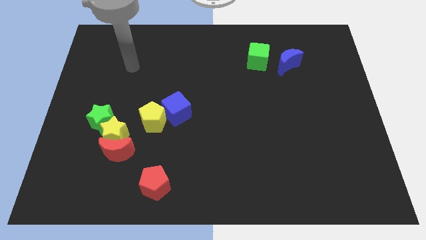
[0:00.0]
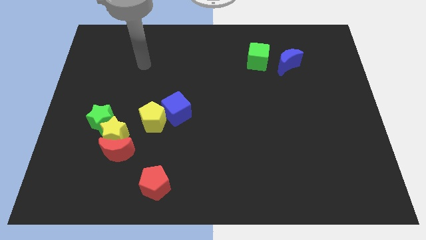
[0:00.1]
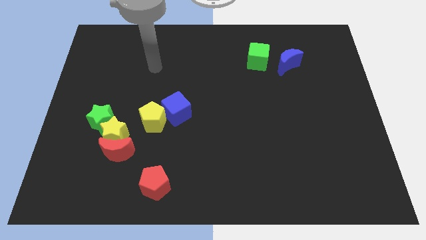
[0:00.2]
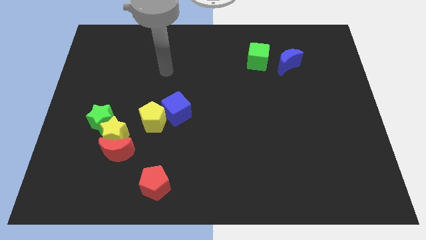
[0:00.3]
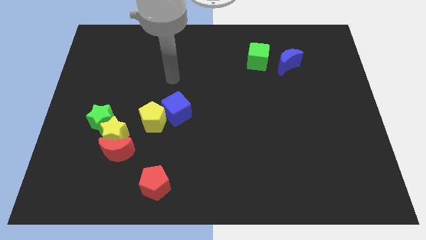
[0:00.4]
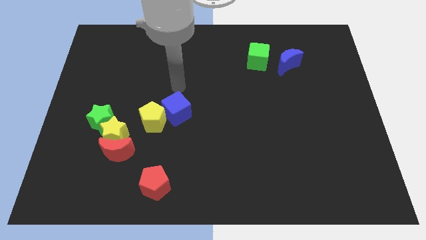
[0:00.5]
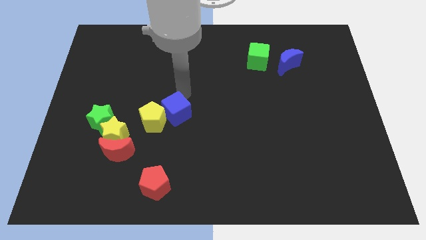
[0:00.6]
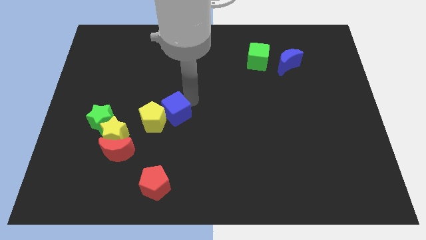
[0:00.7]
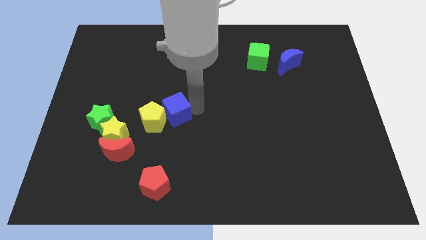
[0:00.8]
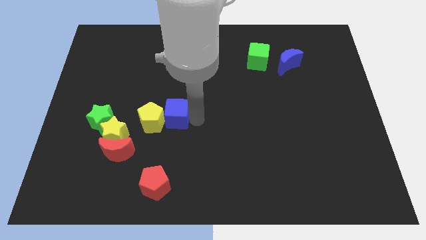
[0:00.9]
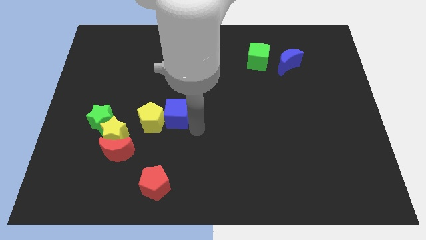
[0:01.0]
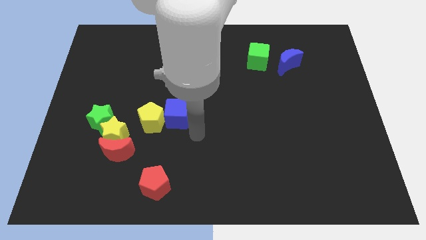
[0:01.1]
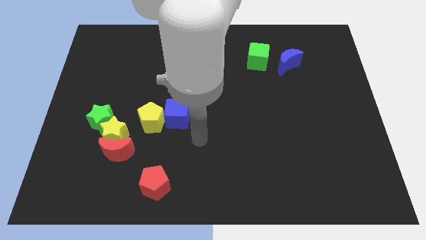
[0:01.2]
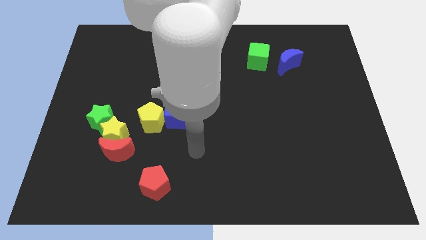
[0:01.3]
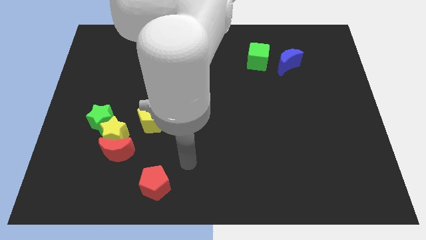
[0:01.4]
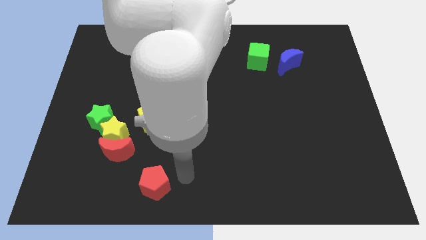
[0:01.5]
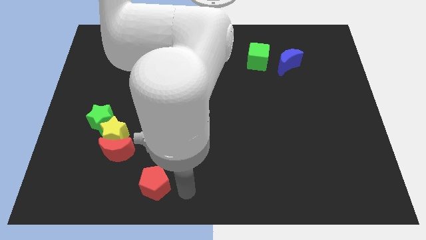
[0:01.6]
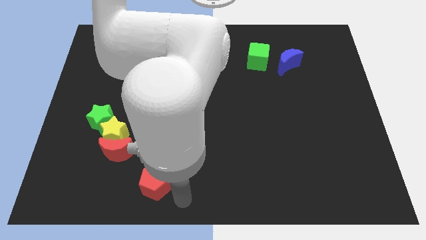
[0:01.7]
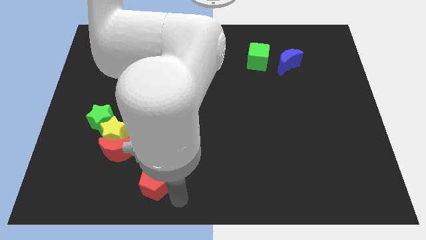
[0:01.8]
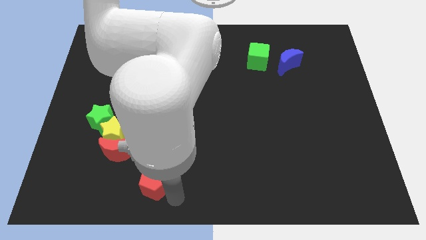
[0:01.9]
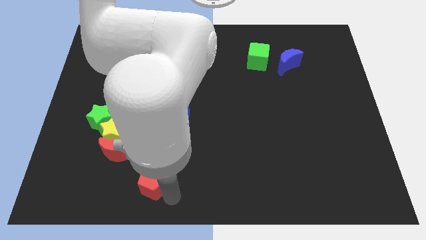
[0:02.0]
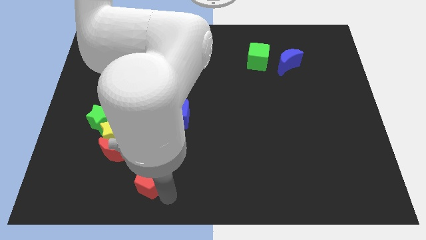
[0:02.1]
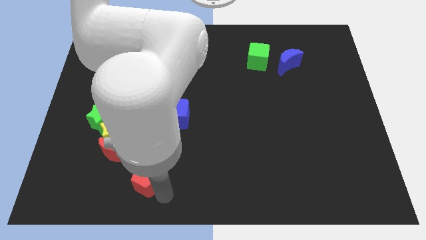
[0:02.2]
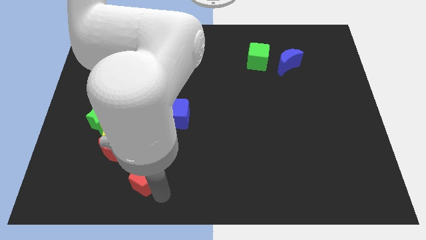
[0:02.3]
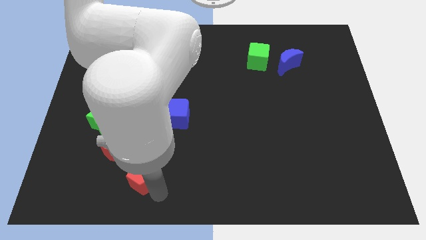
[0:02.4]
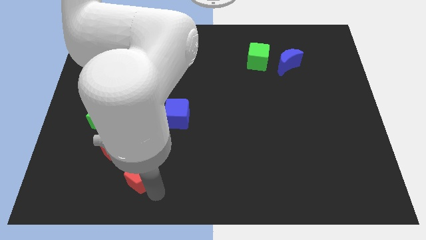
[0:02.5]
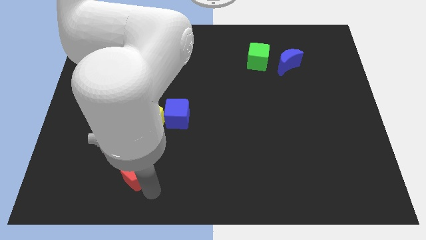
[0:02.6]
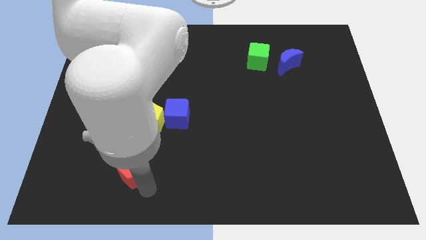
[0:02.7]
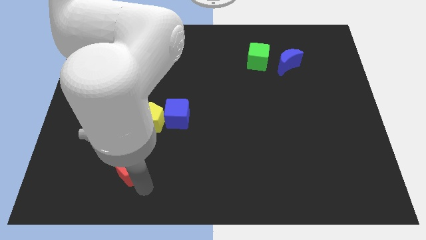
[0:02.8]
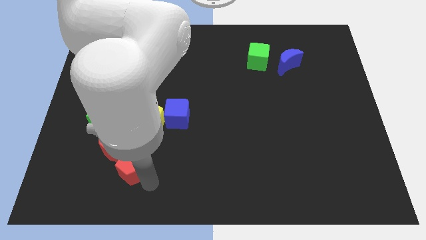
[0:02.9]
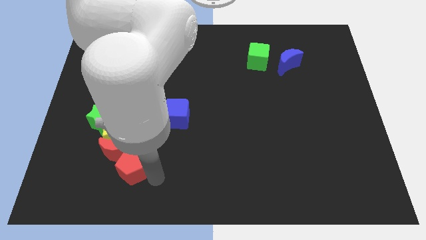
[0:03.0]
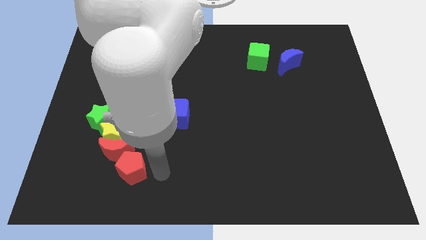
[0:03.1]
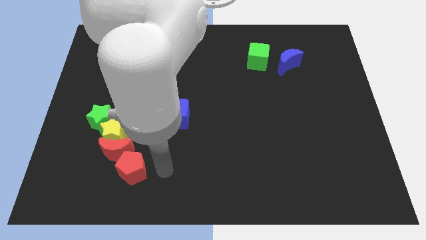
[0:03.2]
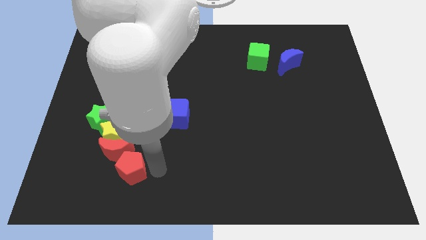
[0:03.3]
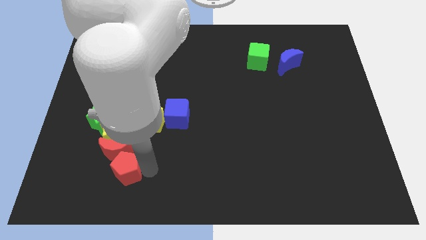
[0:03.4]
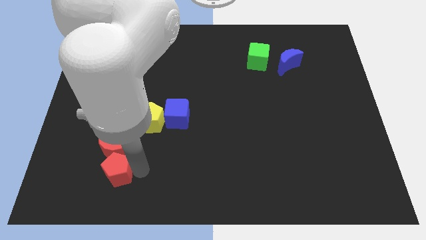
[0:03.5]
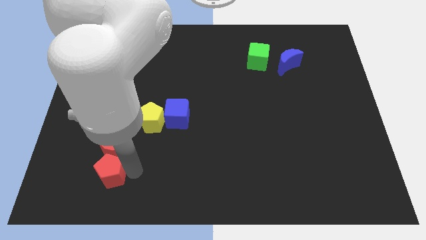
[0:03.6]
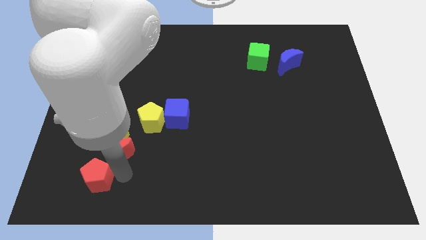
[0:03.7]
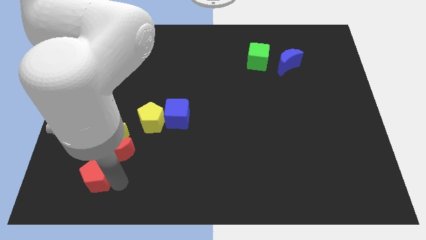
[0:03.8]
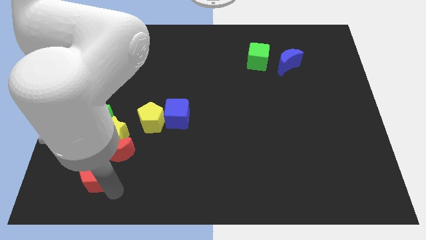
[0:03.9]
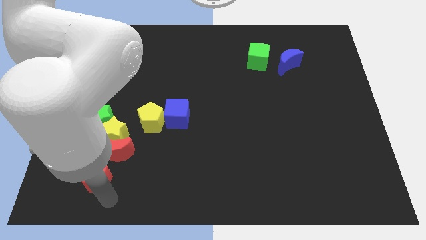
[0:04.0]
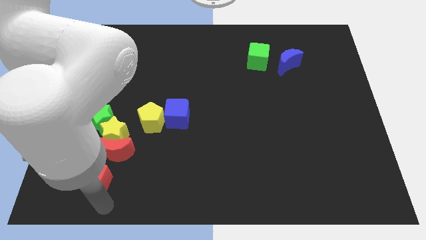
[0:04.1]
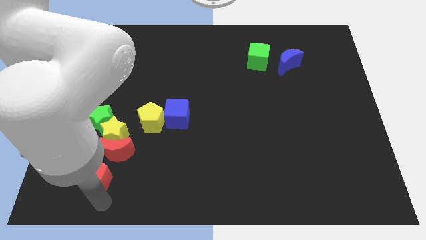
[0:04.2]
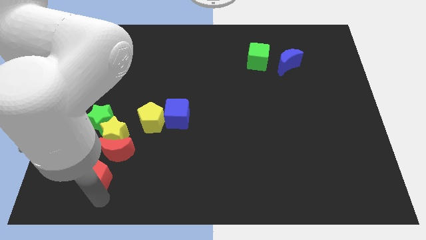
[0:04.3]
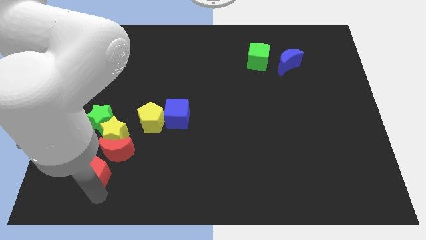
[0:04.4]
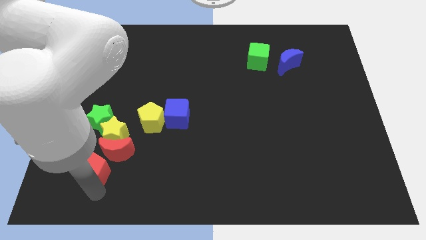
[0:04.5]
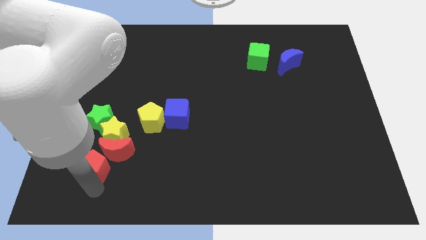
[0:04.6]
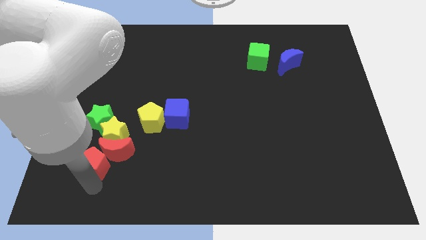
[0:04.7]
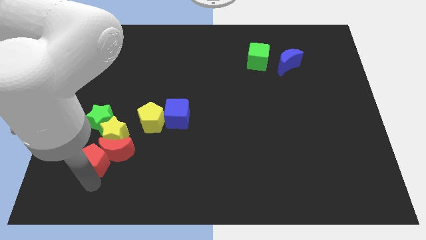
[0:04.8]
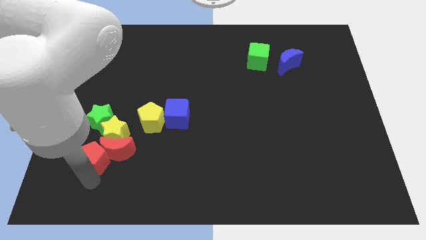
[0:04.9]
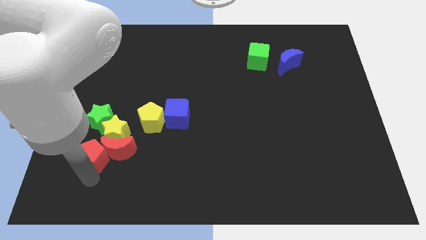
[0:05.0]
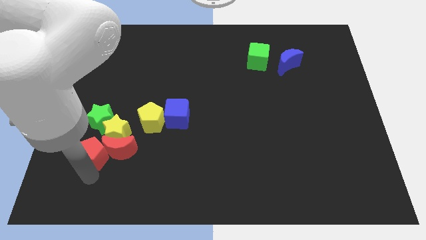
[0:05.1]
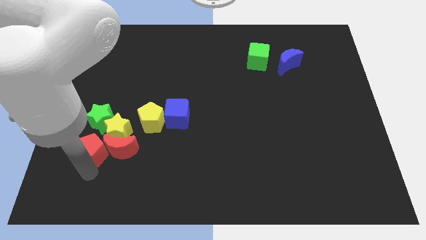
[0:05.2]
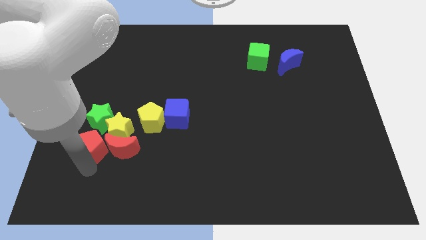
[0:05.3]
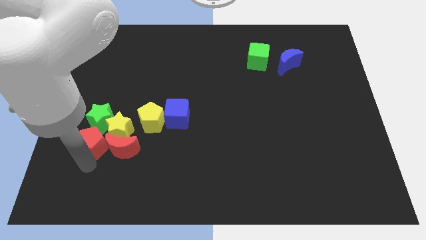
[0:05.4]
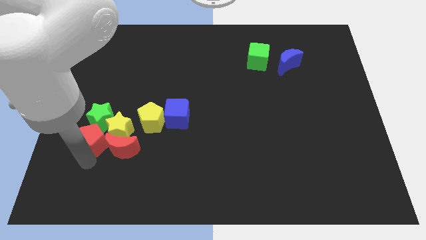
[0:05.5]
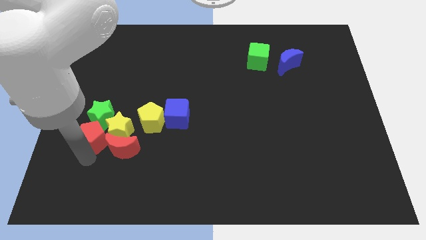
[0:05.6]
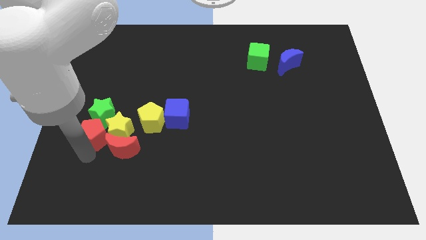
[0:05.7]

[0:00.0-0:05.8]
push the red pentagon left of the yellow pentagon

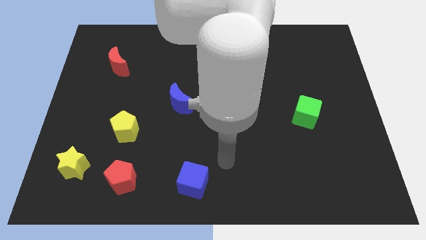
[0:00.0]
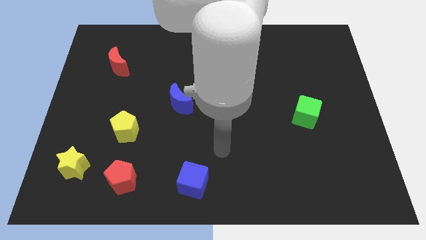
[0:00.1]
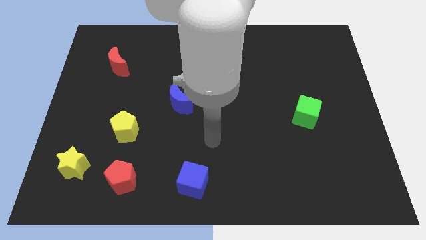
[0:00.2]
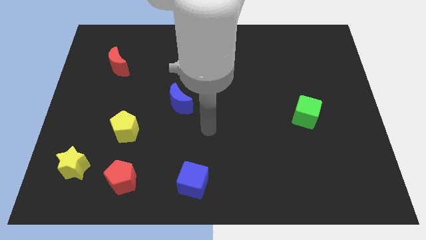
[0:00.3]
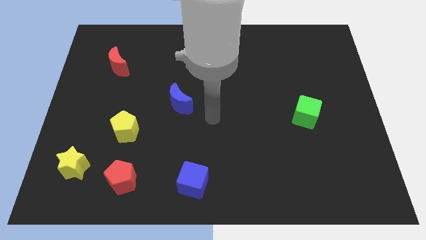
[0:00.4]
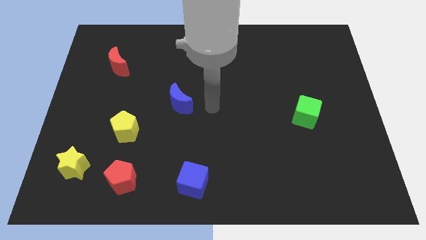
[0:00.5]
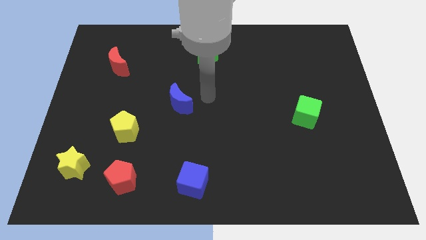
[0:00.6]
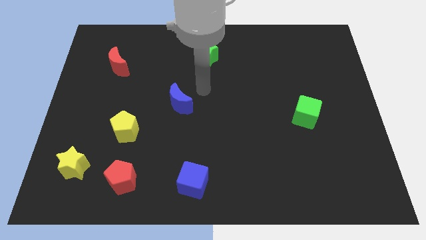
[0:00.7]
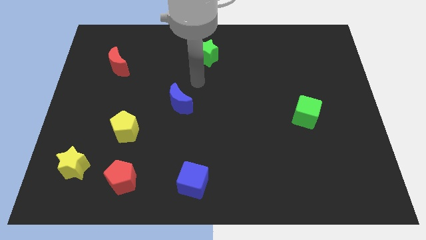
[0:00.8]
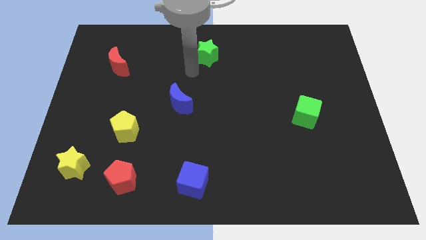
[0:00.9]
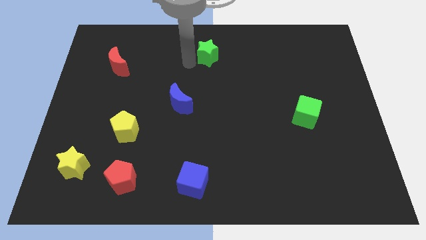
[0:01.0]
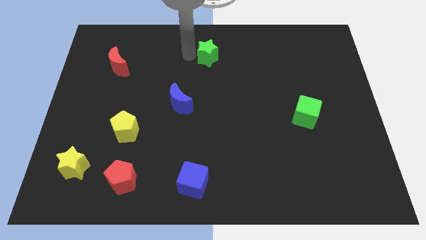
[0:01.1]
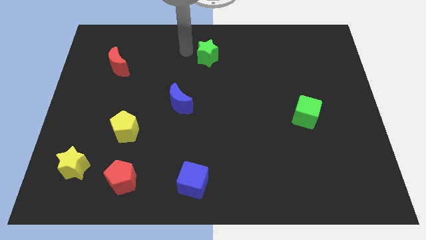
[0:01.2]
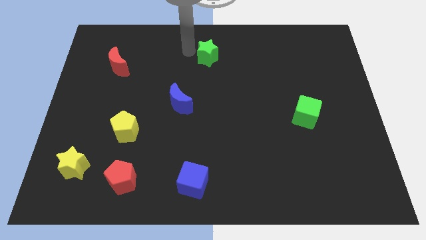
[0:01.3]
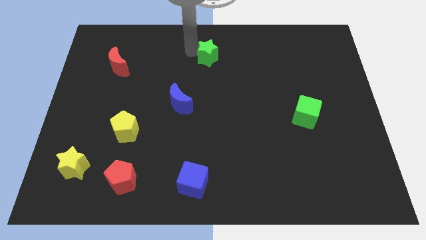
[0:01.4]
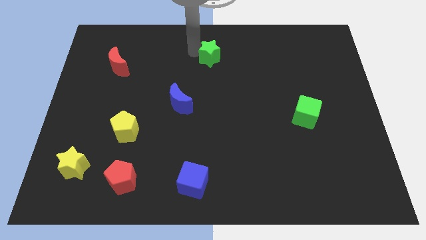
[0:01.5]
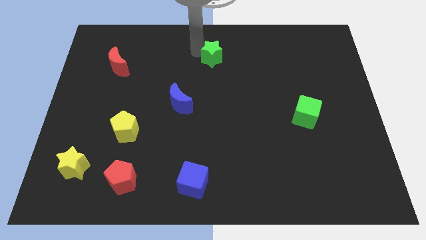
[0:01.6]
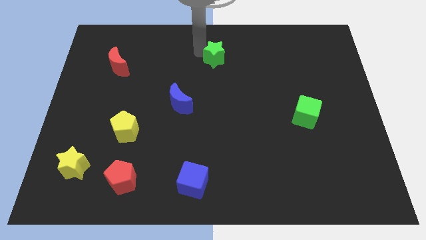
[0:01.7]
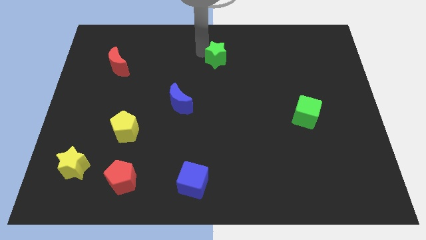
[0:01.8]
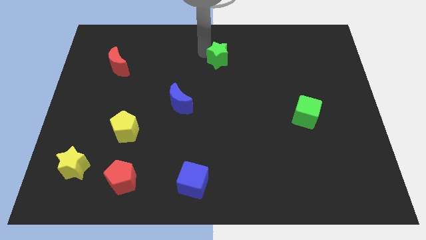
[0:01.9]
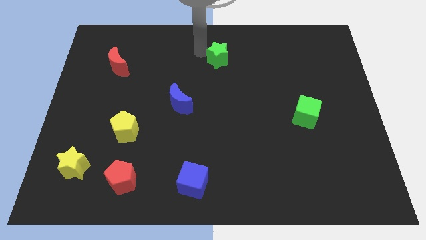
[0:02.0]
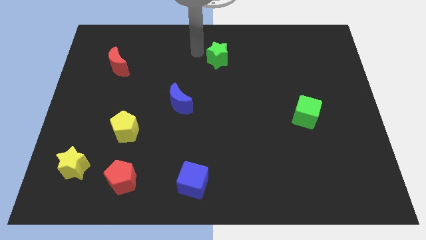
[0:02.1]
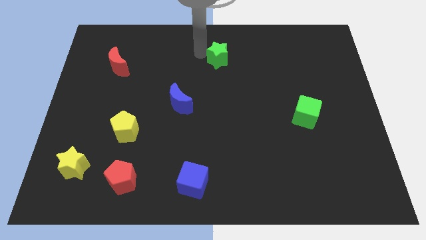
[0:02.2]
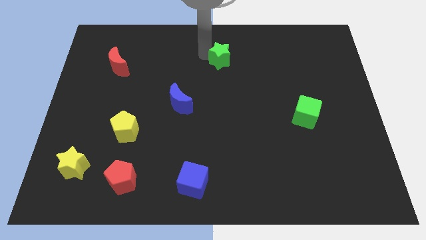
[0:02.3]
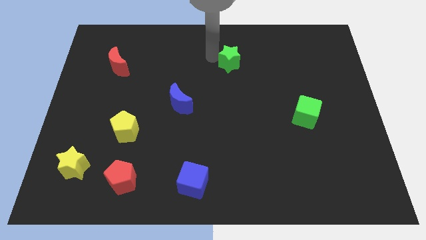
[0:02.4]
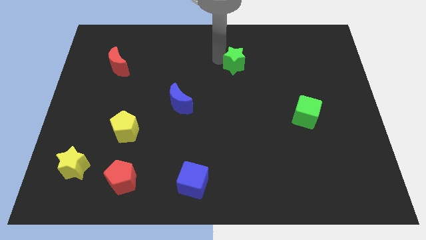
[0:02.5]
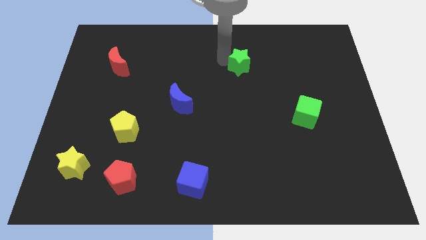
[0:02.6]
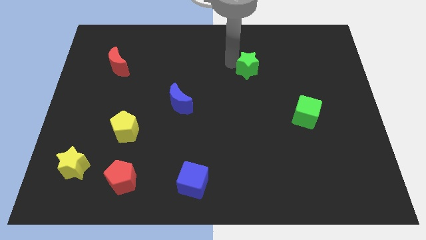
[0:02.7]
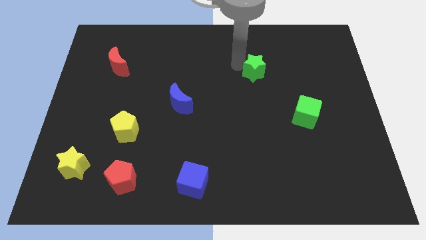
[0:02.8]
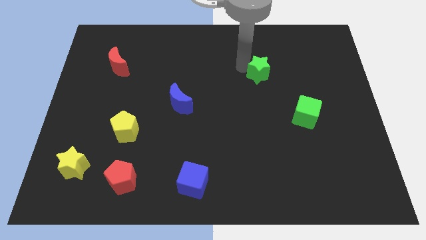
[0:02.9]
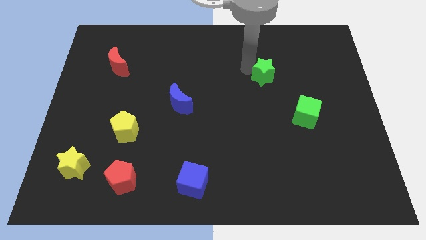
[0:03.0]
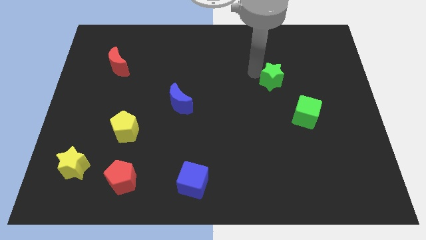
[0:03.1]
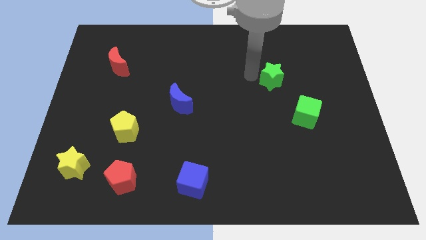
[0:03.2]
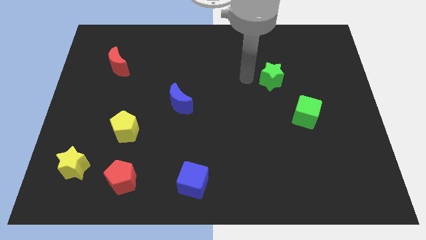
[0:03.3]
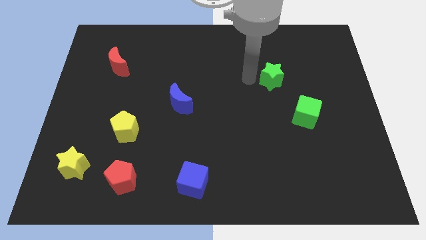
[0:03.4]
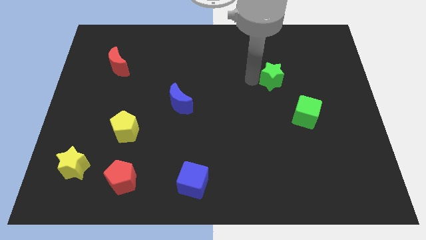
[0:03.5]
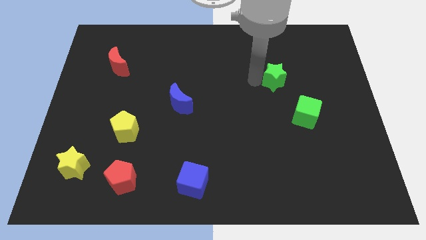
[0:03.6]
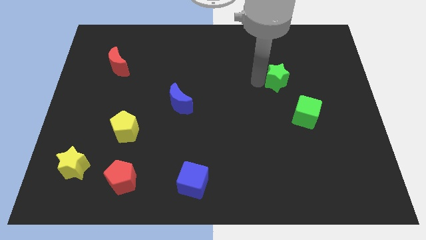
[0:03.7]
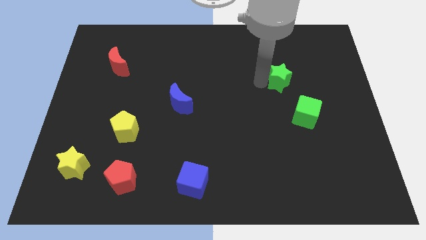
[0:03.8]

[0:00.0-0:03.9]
move the green star to the top side of the green cube
